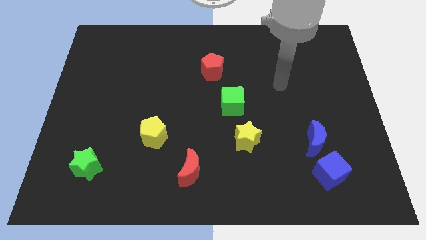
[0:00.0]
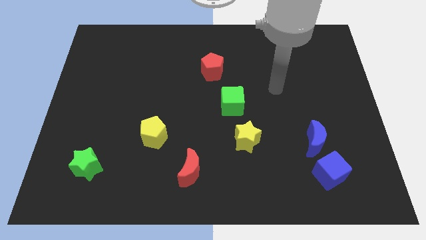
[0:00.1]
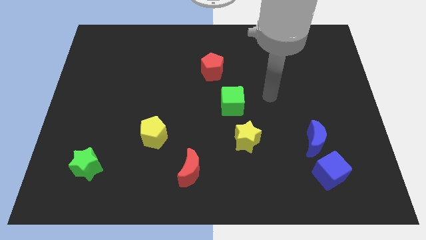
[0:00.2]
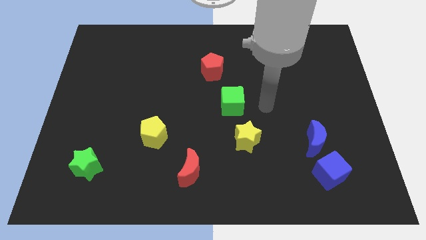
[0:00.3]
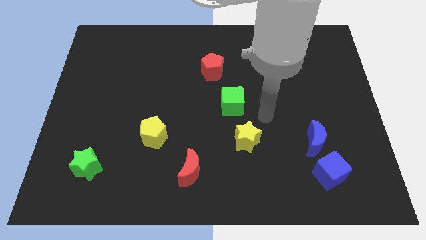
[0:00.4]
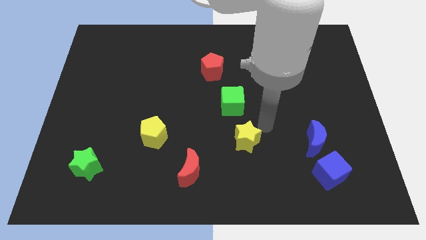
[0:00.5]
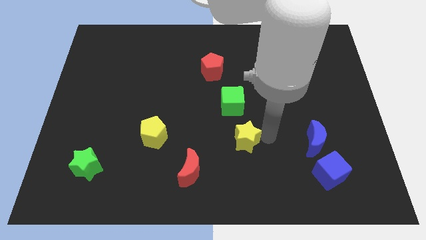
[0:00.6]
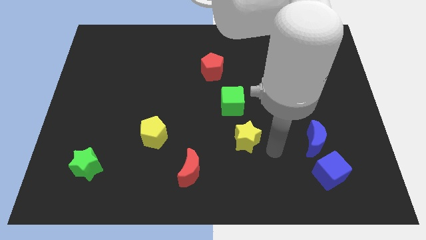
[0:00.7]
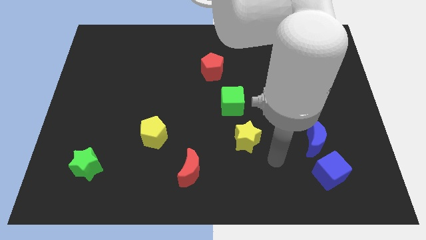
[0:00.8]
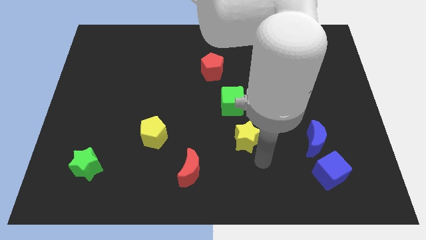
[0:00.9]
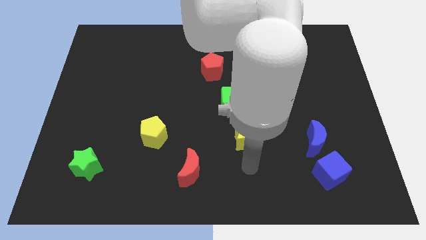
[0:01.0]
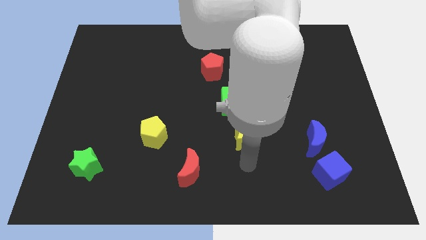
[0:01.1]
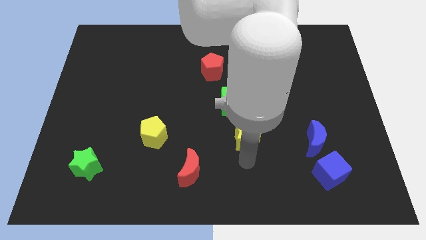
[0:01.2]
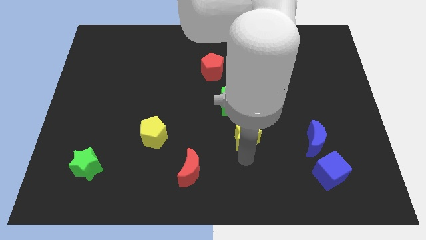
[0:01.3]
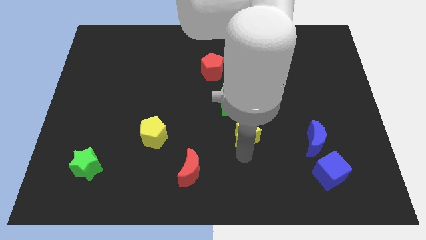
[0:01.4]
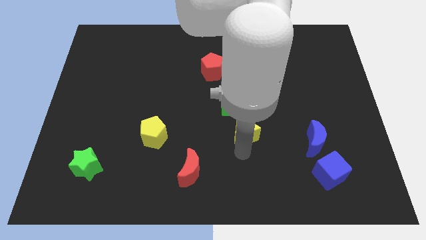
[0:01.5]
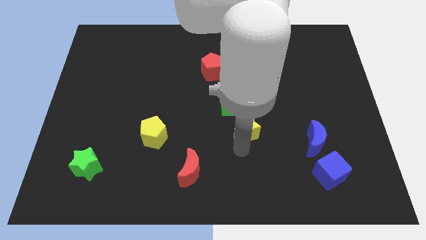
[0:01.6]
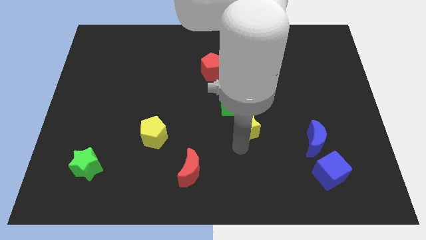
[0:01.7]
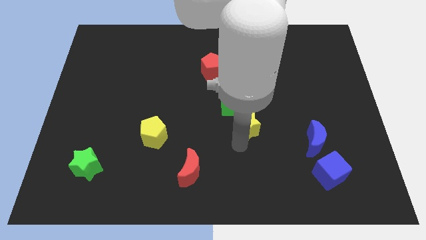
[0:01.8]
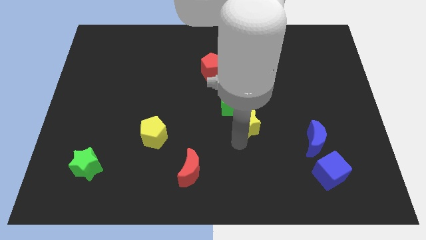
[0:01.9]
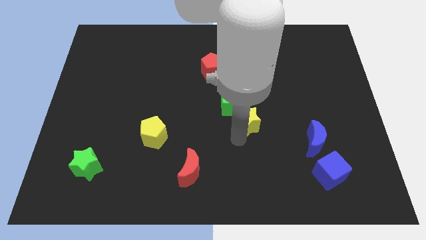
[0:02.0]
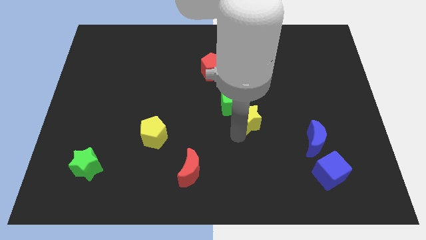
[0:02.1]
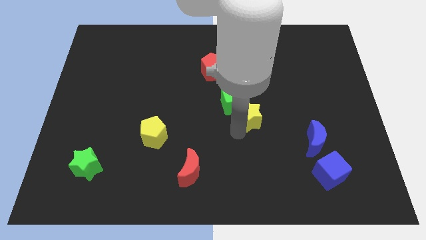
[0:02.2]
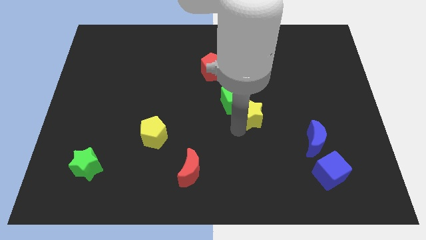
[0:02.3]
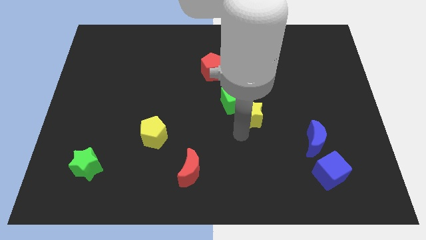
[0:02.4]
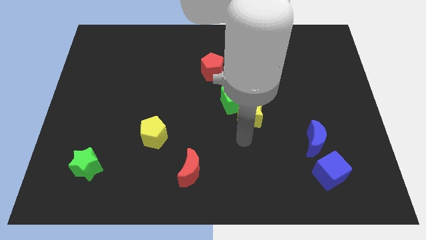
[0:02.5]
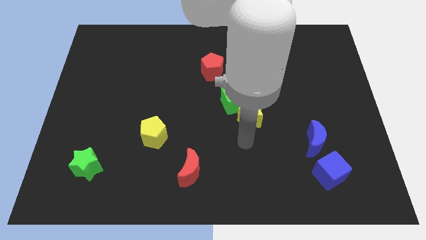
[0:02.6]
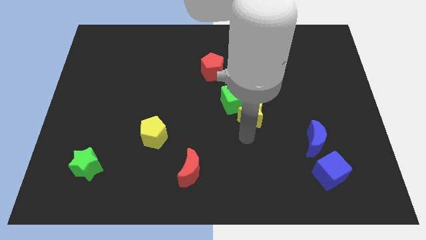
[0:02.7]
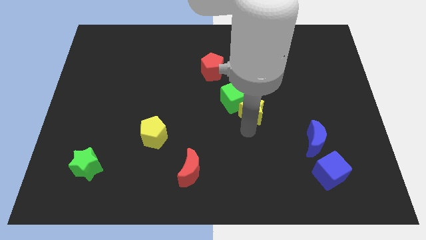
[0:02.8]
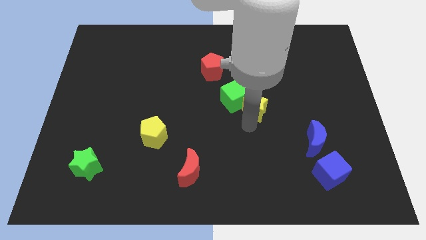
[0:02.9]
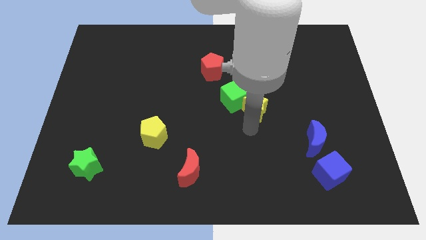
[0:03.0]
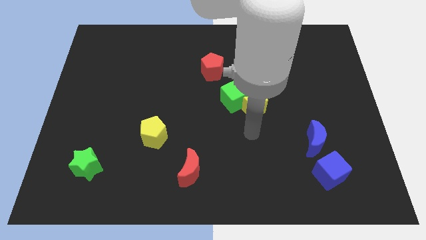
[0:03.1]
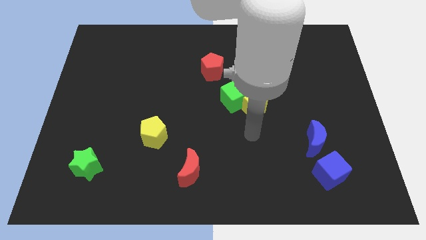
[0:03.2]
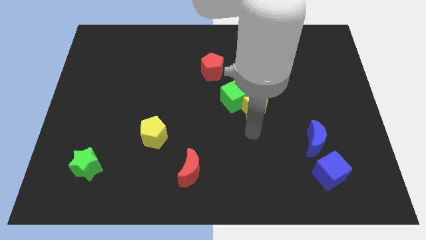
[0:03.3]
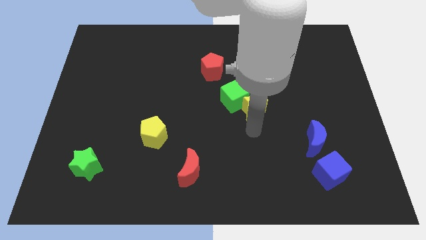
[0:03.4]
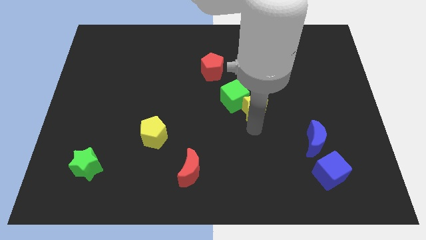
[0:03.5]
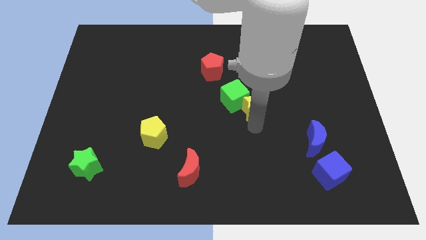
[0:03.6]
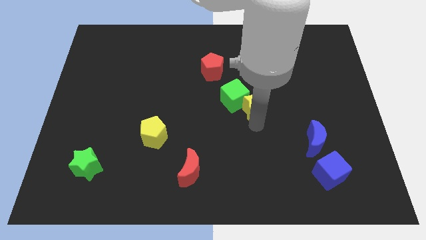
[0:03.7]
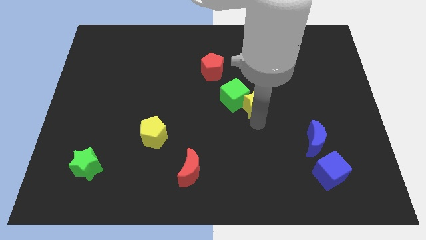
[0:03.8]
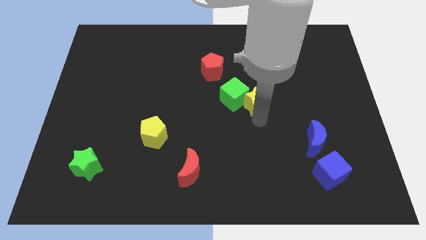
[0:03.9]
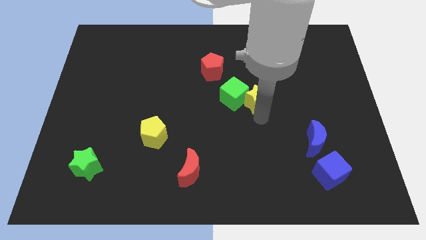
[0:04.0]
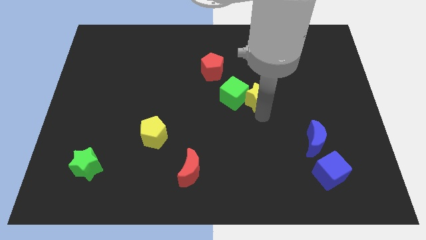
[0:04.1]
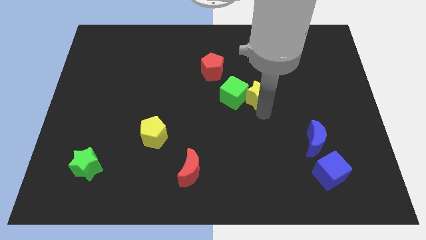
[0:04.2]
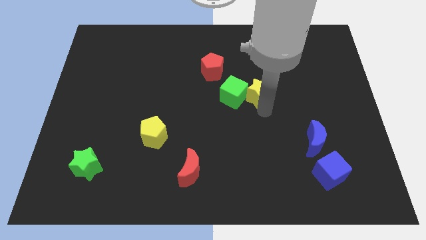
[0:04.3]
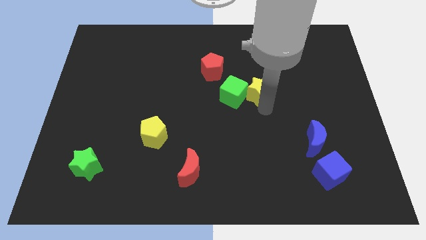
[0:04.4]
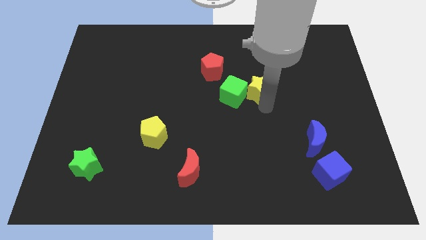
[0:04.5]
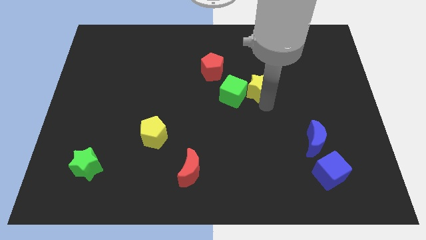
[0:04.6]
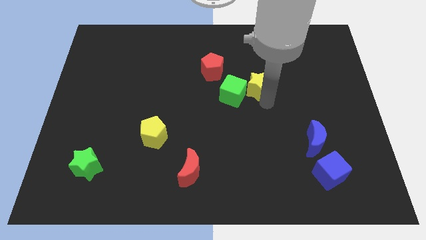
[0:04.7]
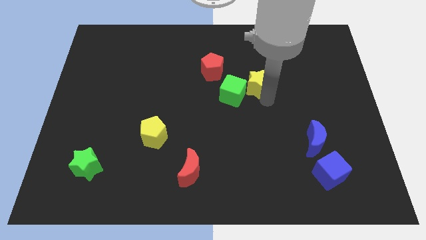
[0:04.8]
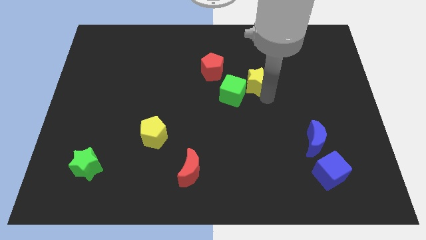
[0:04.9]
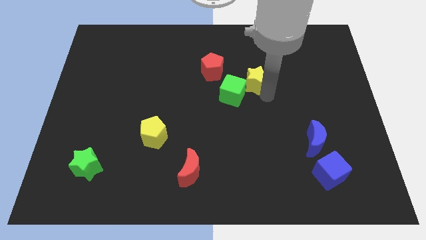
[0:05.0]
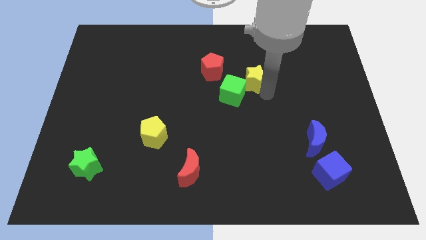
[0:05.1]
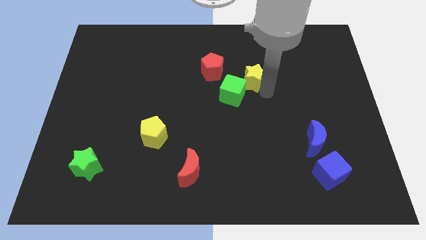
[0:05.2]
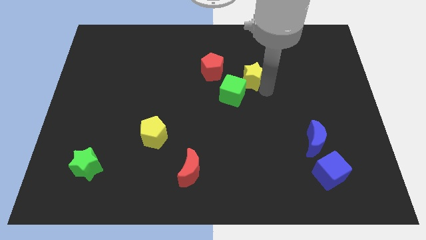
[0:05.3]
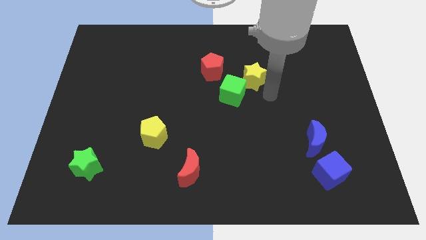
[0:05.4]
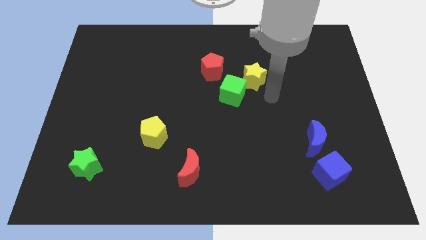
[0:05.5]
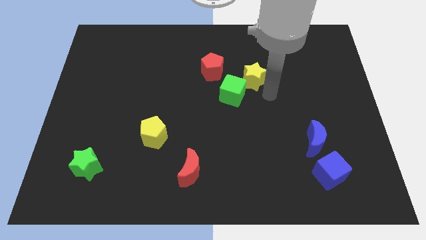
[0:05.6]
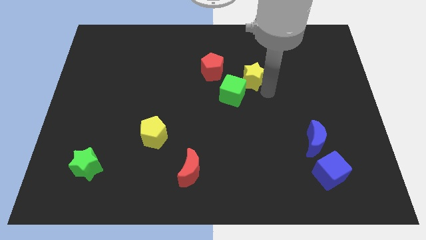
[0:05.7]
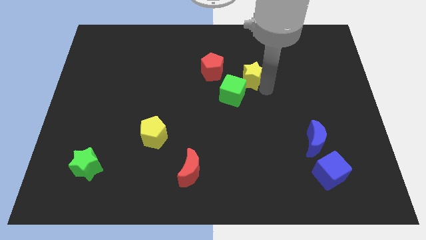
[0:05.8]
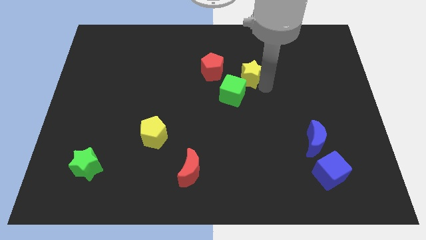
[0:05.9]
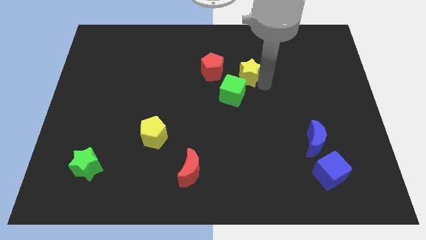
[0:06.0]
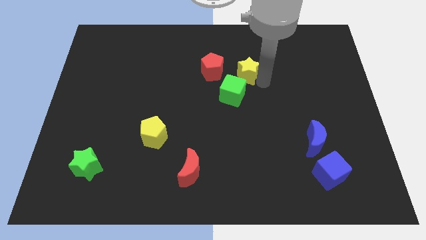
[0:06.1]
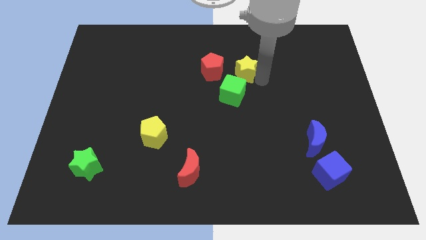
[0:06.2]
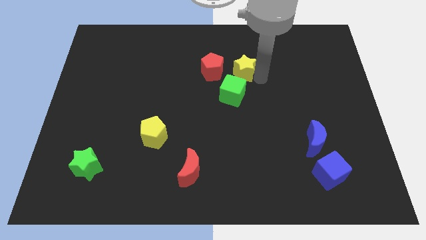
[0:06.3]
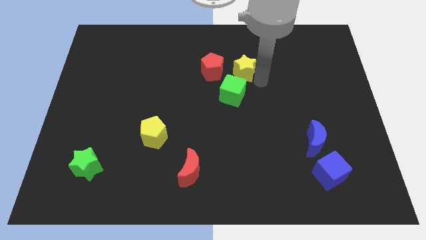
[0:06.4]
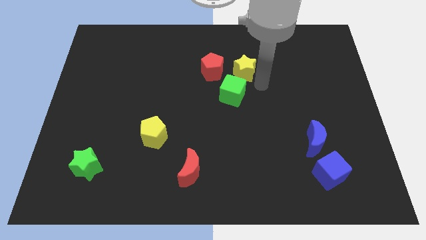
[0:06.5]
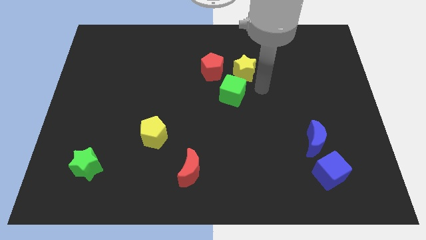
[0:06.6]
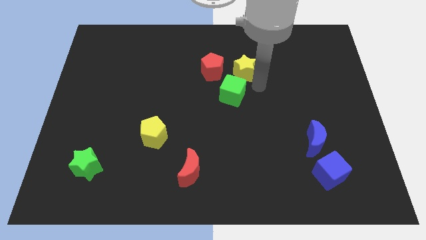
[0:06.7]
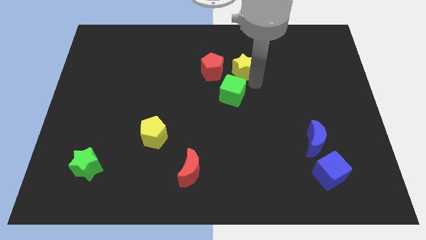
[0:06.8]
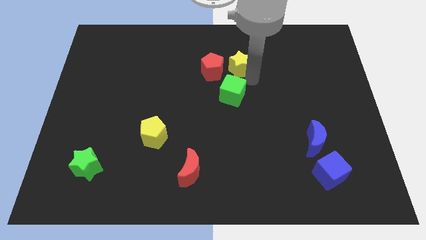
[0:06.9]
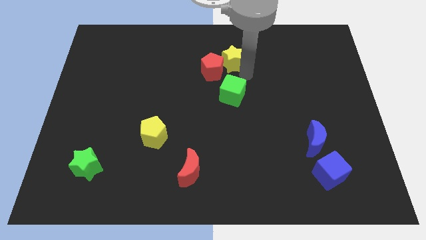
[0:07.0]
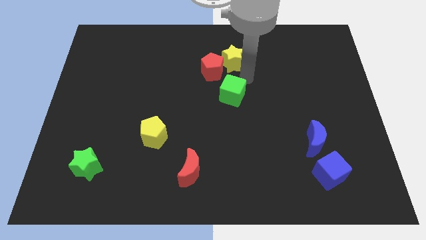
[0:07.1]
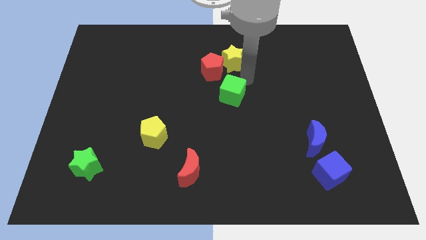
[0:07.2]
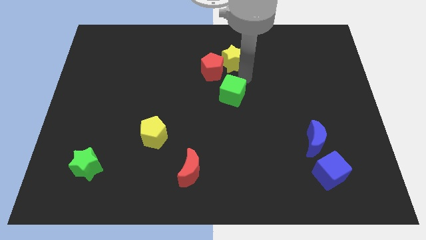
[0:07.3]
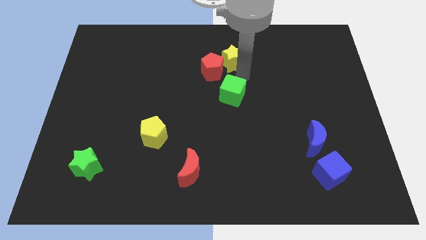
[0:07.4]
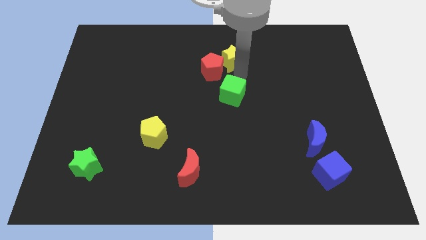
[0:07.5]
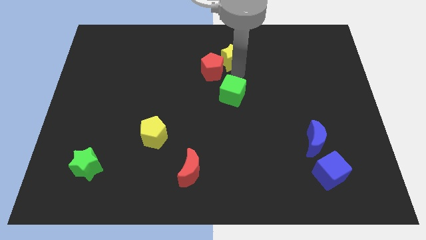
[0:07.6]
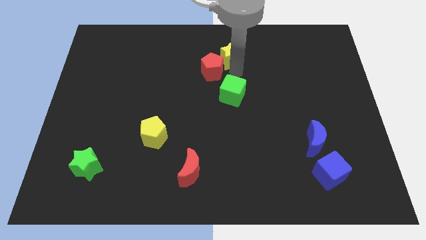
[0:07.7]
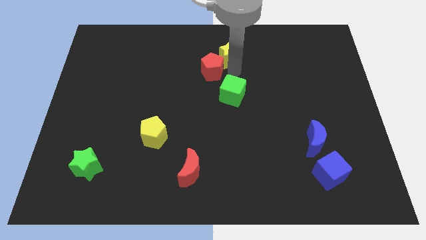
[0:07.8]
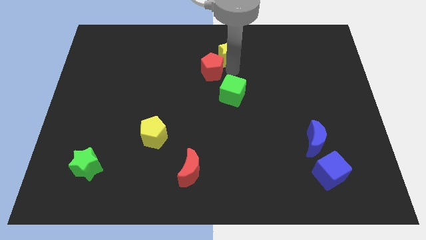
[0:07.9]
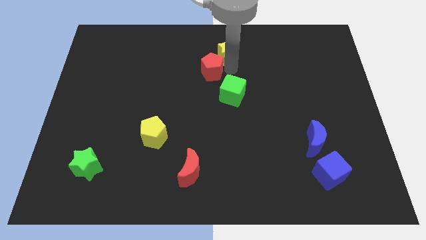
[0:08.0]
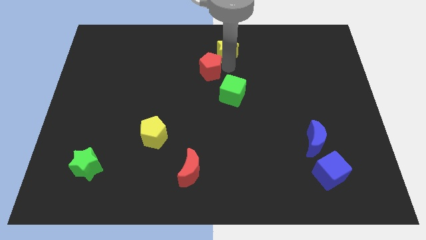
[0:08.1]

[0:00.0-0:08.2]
slide the yellow star to the top side
